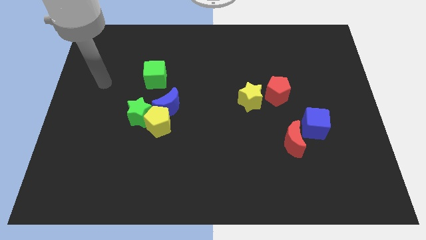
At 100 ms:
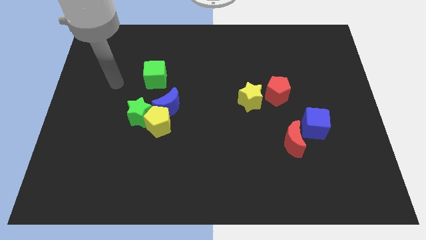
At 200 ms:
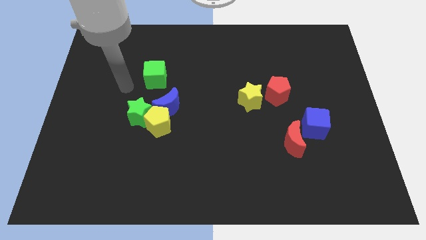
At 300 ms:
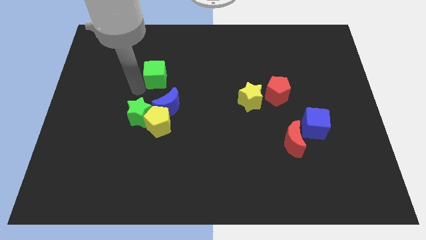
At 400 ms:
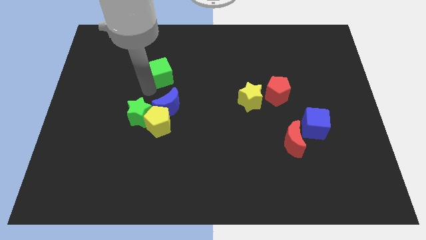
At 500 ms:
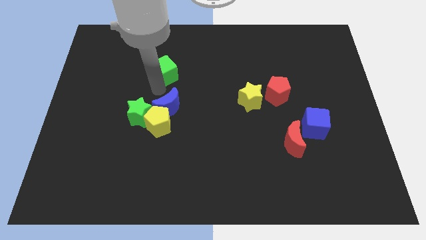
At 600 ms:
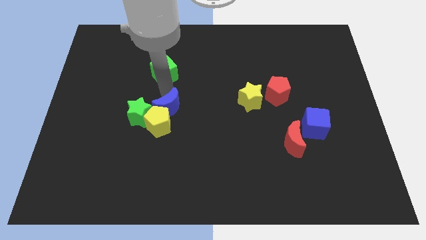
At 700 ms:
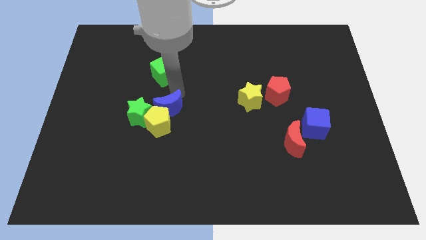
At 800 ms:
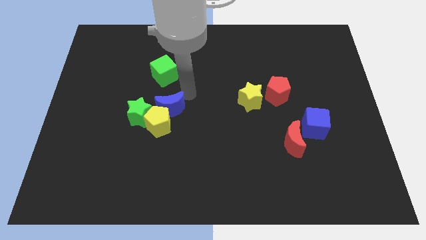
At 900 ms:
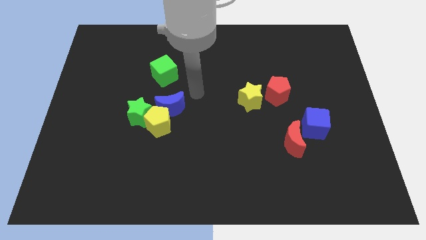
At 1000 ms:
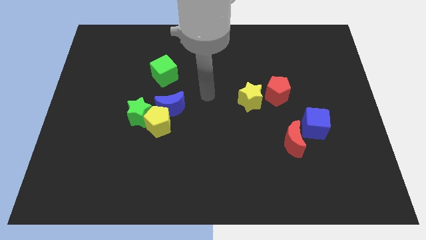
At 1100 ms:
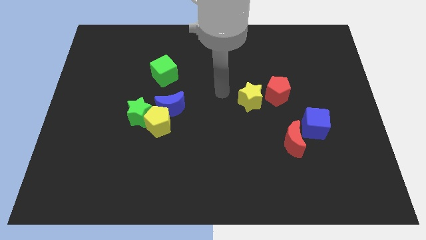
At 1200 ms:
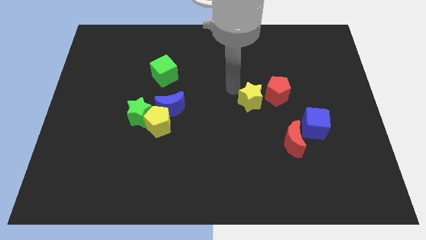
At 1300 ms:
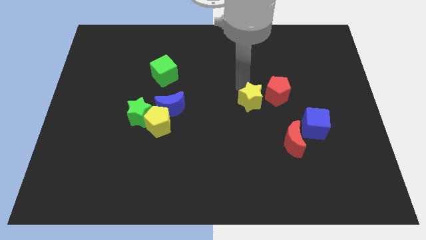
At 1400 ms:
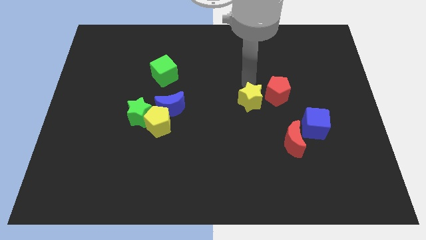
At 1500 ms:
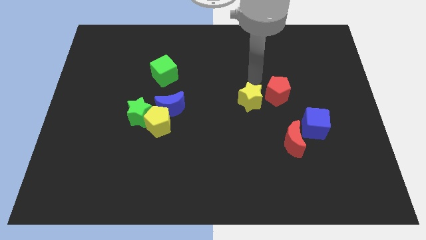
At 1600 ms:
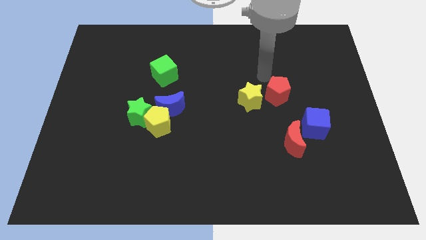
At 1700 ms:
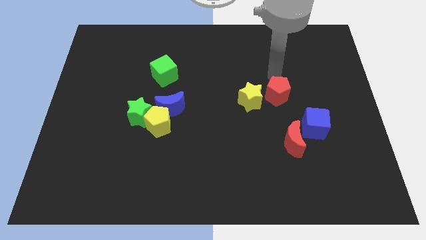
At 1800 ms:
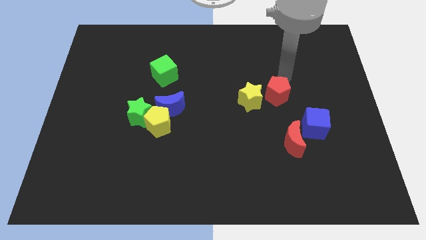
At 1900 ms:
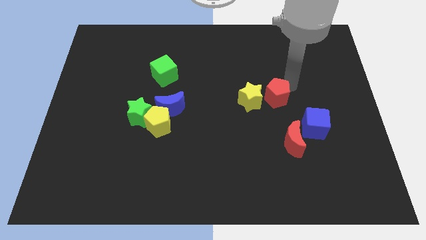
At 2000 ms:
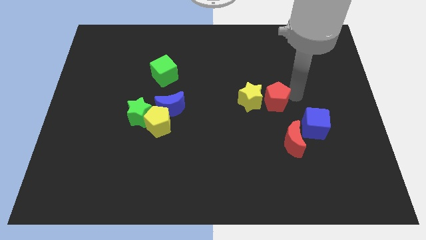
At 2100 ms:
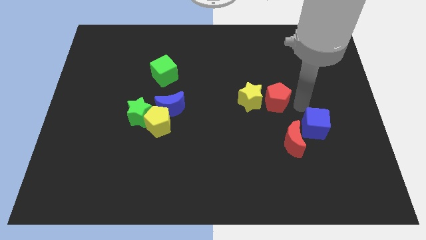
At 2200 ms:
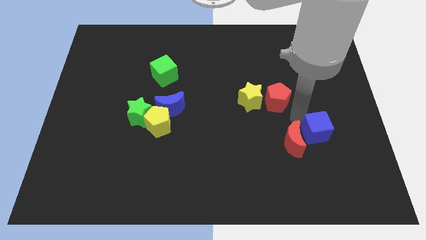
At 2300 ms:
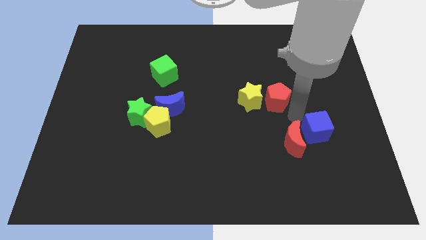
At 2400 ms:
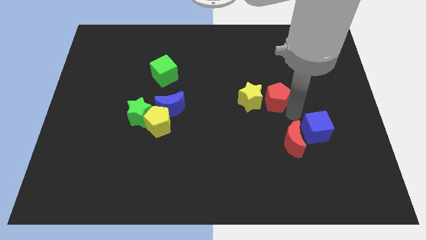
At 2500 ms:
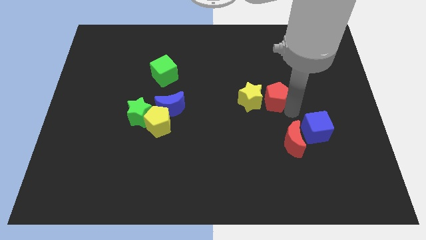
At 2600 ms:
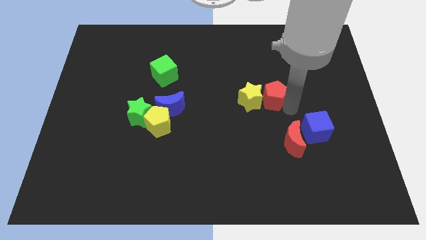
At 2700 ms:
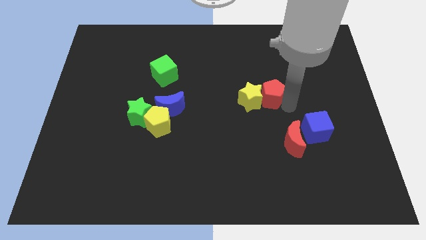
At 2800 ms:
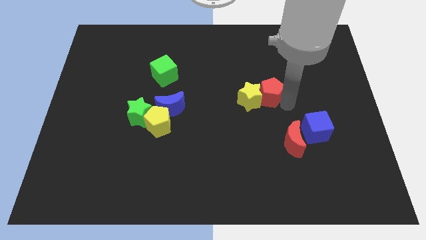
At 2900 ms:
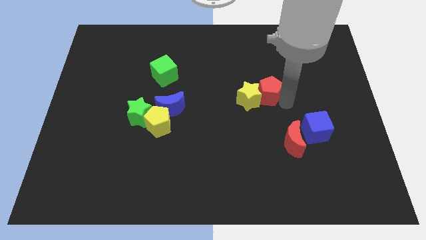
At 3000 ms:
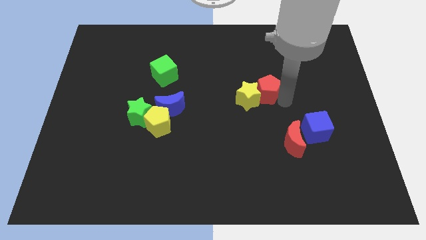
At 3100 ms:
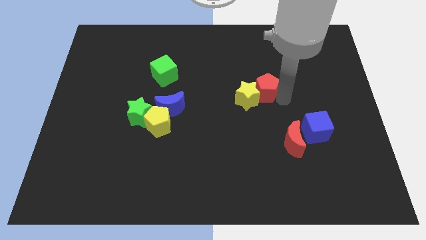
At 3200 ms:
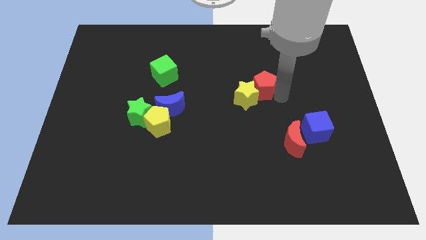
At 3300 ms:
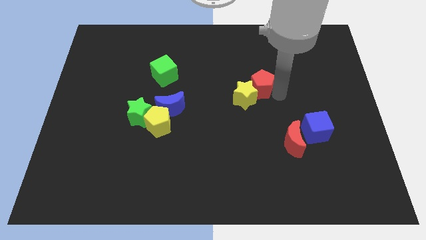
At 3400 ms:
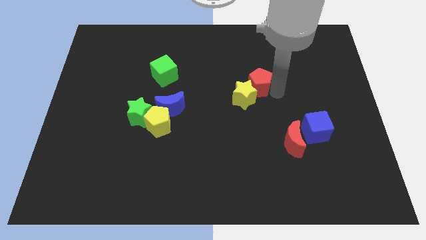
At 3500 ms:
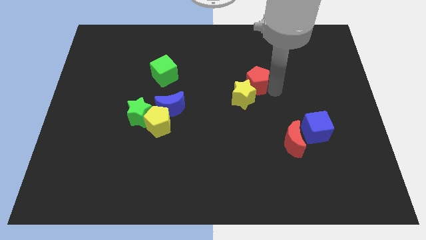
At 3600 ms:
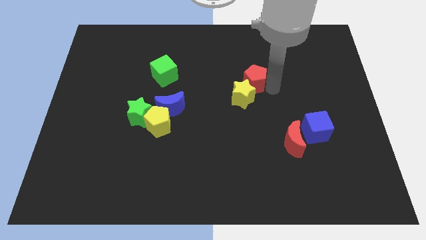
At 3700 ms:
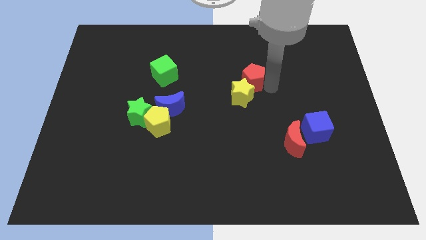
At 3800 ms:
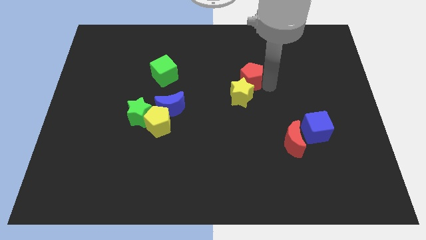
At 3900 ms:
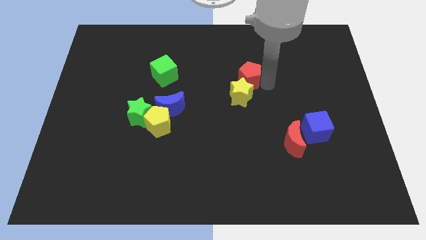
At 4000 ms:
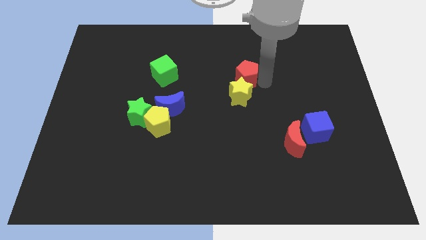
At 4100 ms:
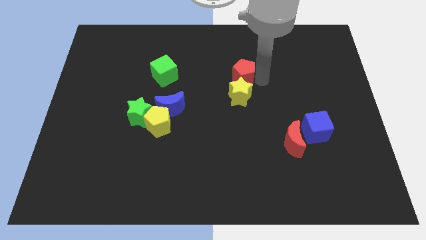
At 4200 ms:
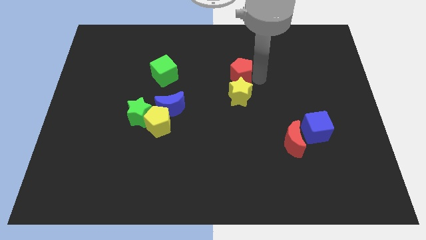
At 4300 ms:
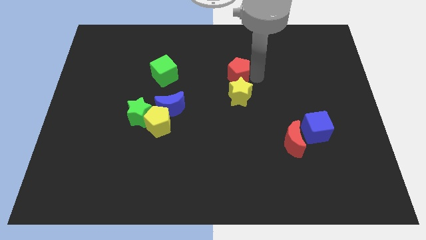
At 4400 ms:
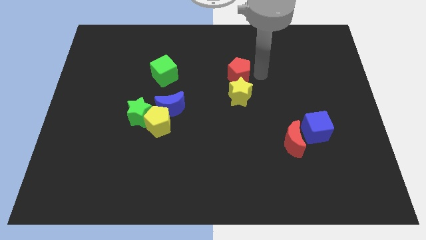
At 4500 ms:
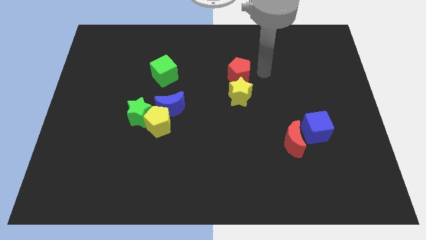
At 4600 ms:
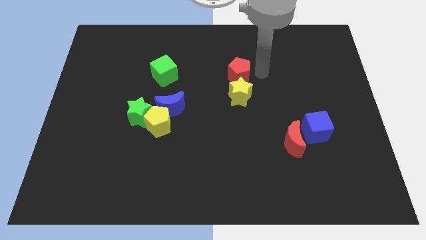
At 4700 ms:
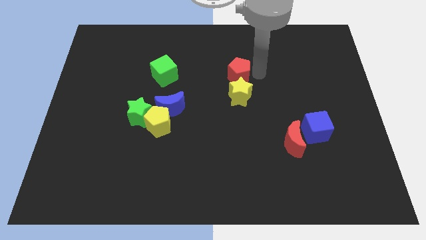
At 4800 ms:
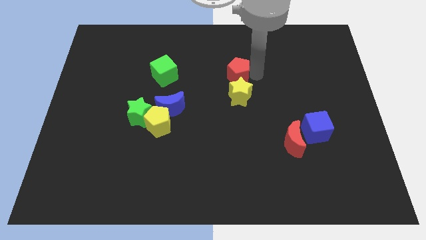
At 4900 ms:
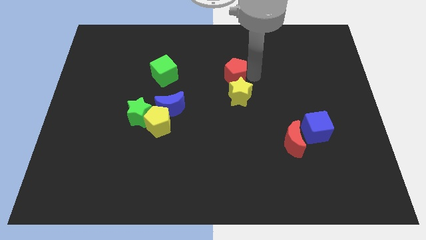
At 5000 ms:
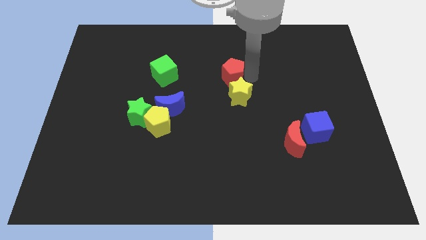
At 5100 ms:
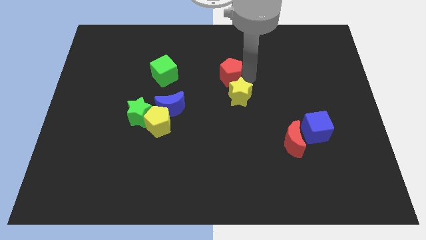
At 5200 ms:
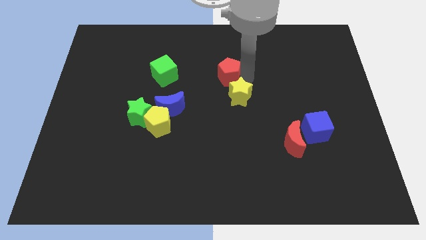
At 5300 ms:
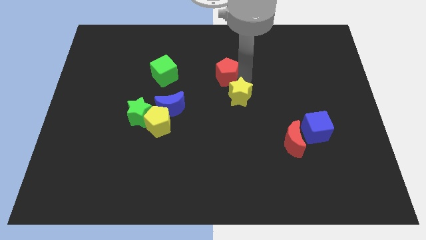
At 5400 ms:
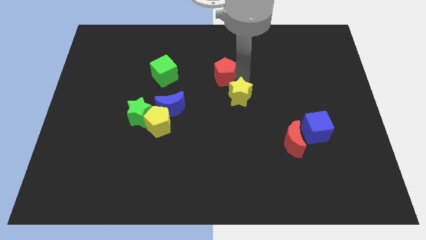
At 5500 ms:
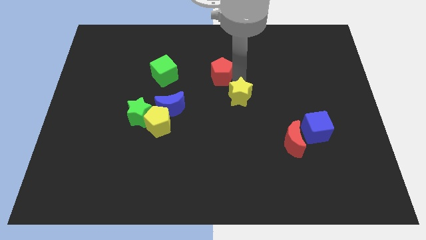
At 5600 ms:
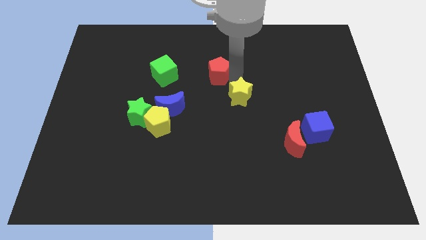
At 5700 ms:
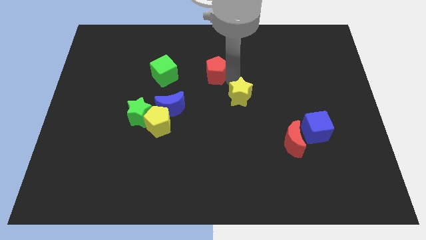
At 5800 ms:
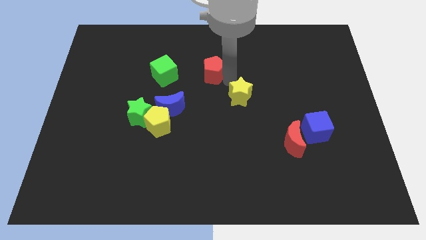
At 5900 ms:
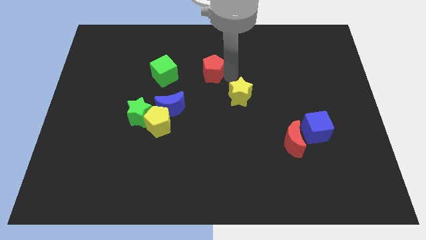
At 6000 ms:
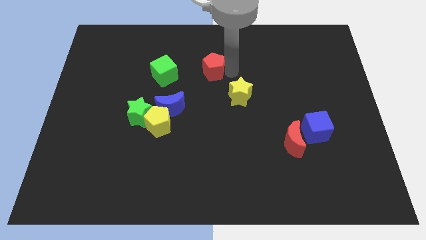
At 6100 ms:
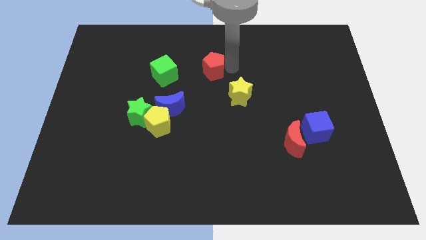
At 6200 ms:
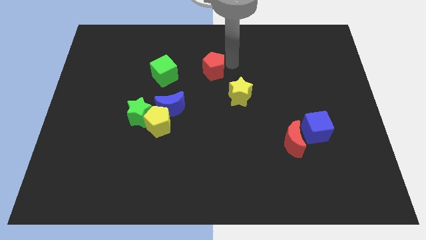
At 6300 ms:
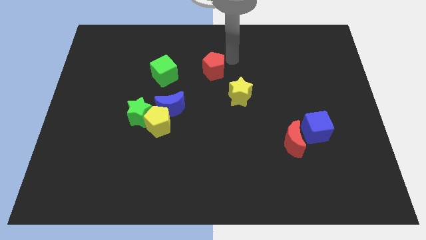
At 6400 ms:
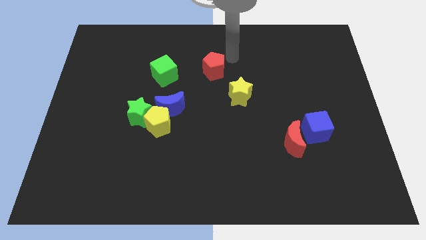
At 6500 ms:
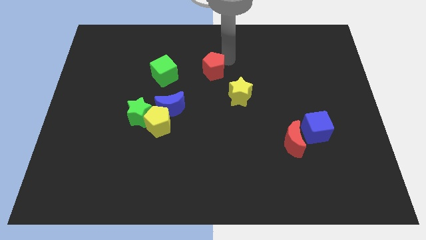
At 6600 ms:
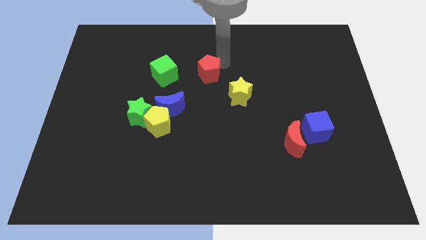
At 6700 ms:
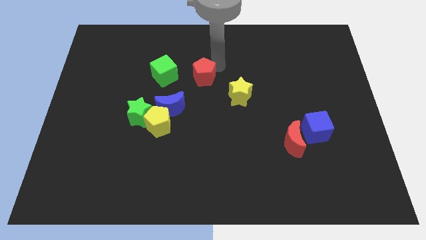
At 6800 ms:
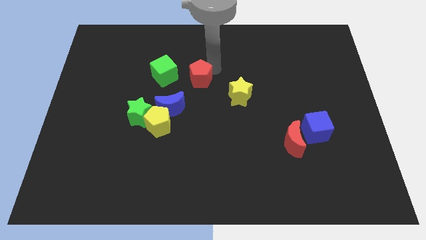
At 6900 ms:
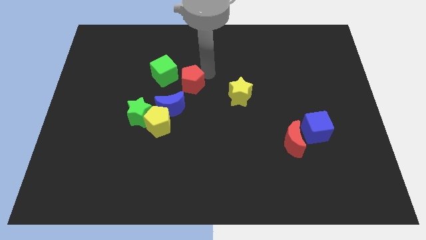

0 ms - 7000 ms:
move the red pentagon left

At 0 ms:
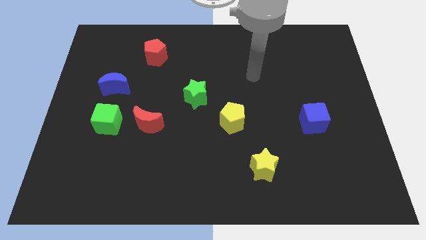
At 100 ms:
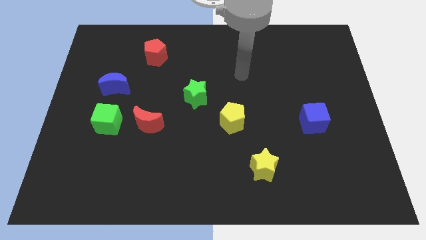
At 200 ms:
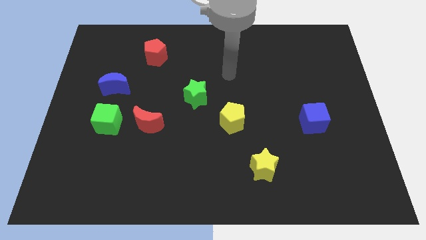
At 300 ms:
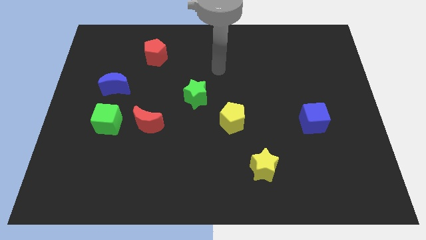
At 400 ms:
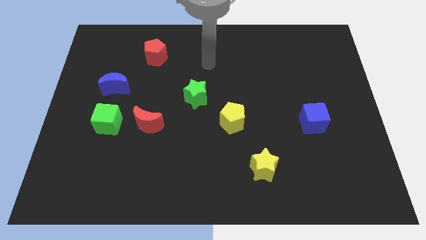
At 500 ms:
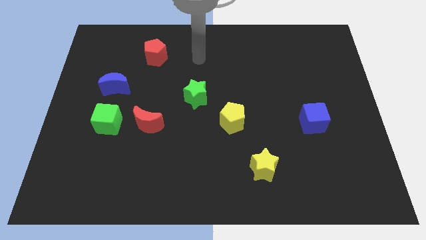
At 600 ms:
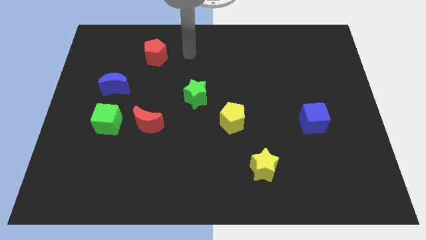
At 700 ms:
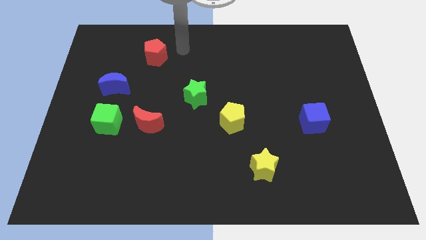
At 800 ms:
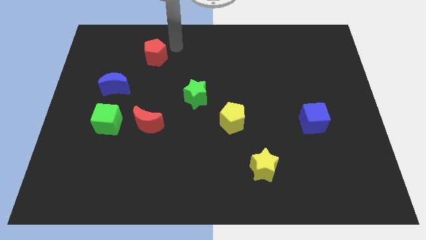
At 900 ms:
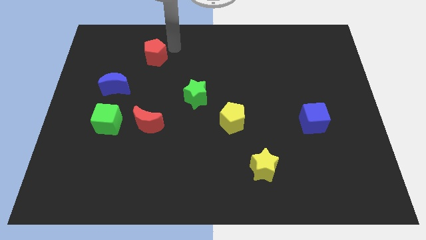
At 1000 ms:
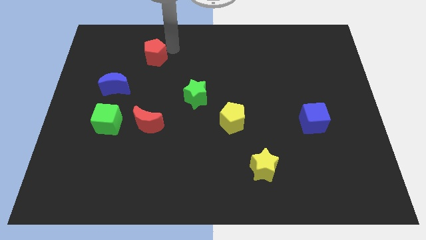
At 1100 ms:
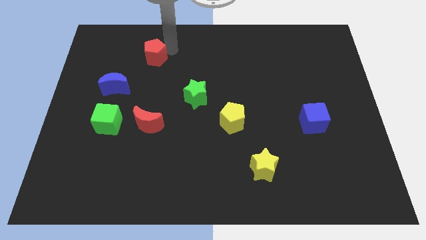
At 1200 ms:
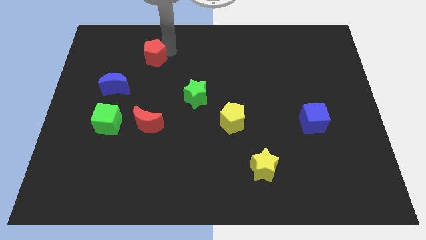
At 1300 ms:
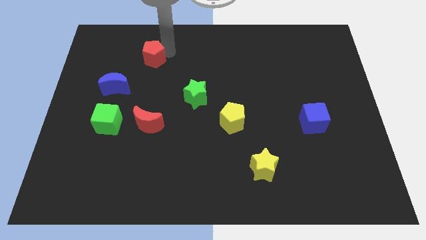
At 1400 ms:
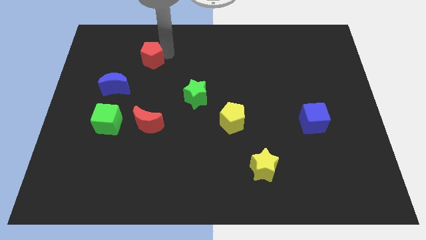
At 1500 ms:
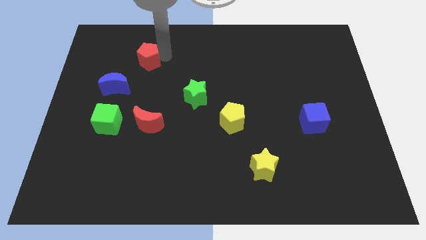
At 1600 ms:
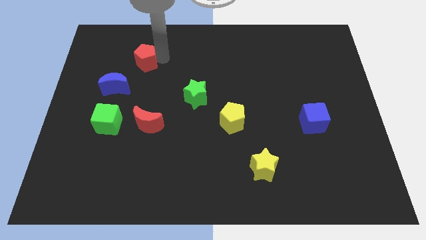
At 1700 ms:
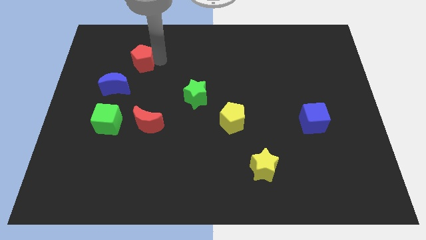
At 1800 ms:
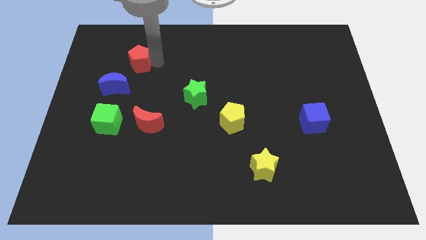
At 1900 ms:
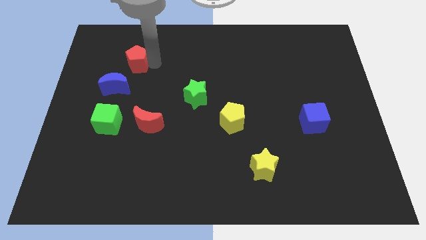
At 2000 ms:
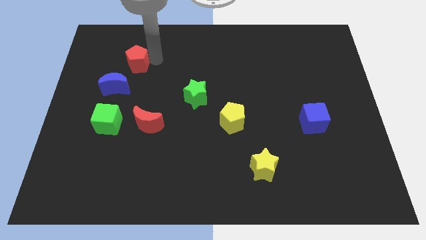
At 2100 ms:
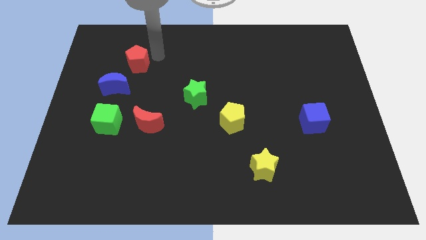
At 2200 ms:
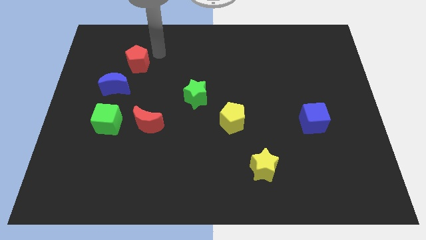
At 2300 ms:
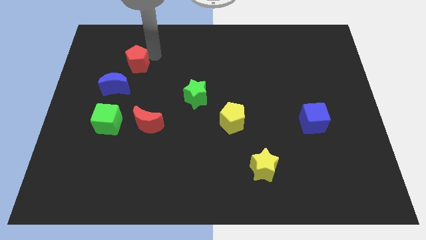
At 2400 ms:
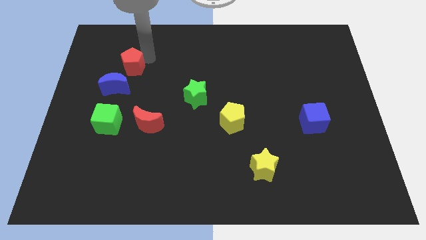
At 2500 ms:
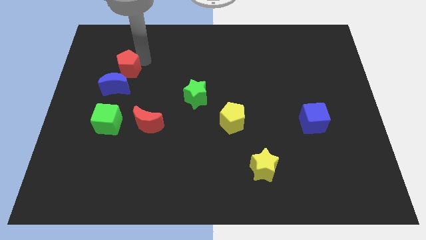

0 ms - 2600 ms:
slide the red pentagon a little diagonally downwards and to the left
